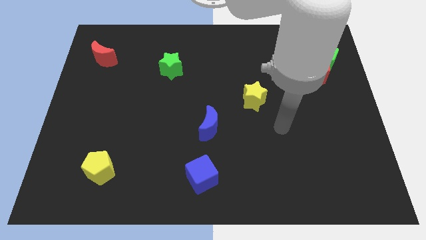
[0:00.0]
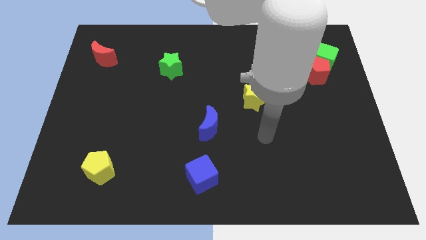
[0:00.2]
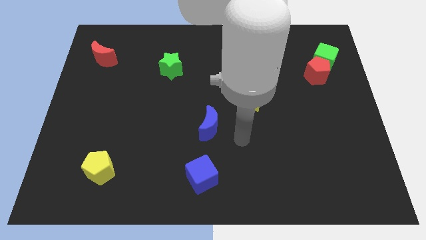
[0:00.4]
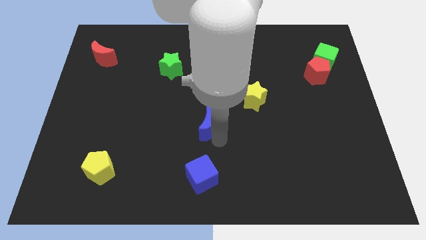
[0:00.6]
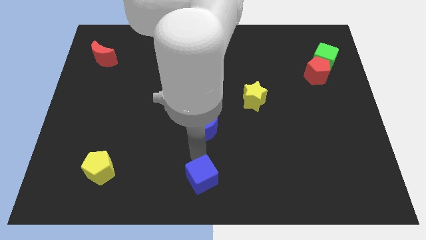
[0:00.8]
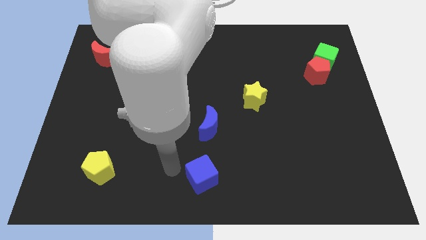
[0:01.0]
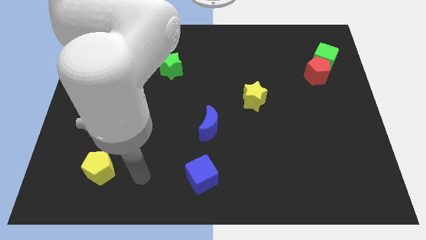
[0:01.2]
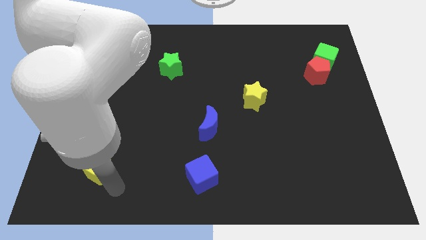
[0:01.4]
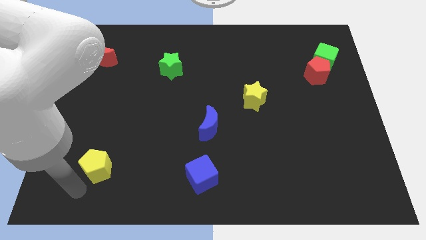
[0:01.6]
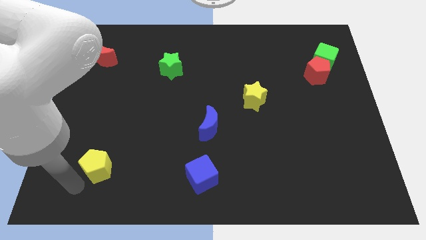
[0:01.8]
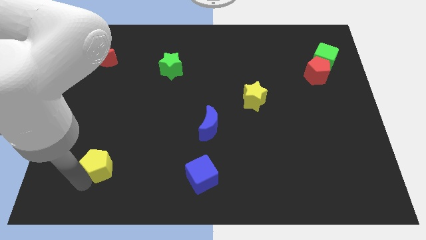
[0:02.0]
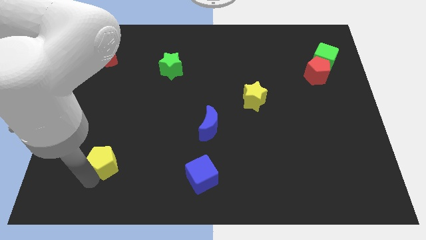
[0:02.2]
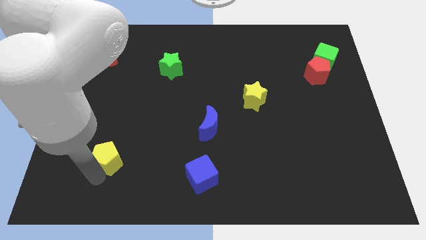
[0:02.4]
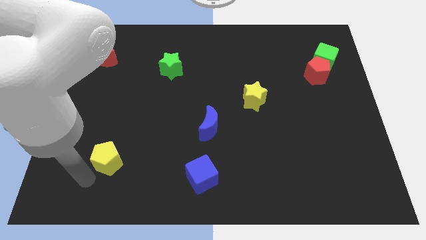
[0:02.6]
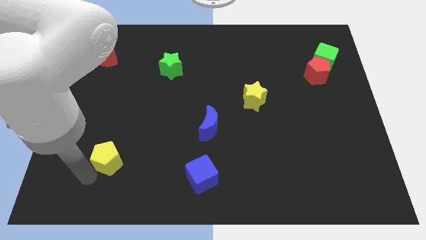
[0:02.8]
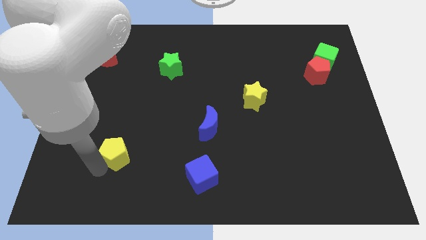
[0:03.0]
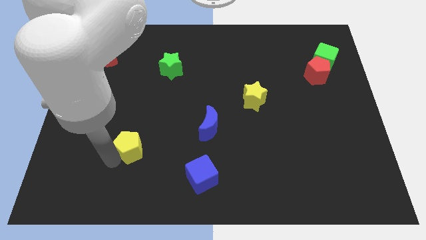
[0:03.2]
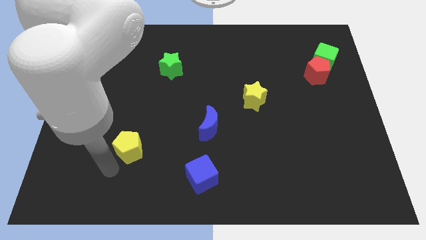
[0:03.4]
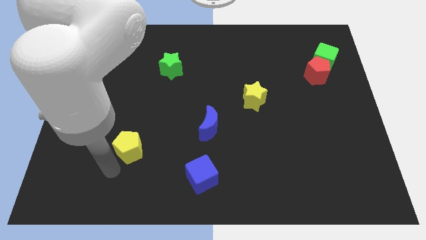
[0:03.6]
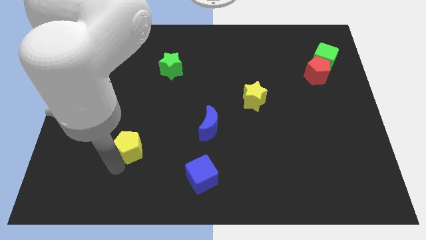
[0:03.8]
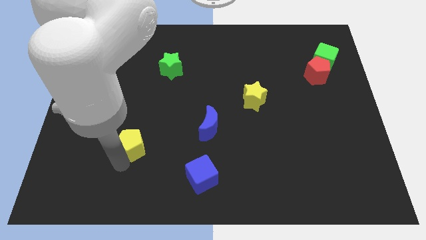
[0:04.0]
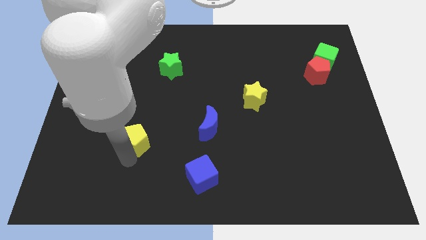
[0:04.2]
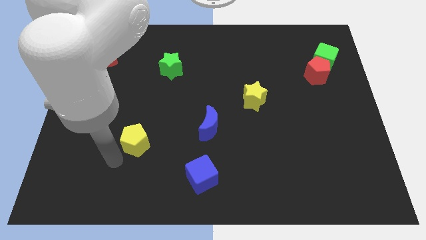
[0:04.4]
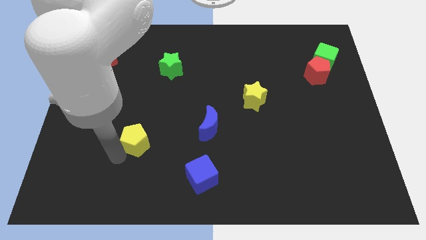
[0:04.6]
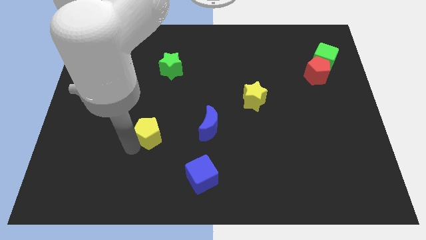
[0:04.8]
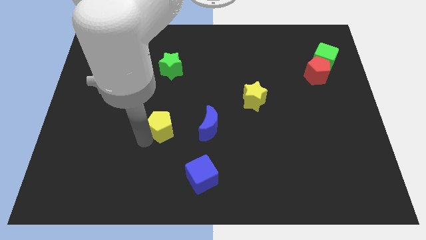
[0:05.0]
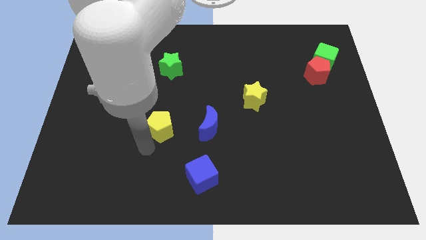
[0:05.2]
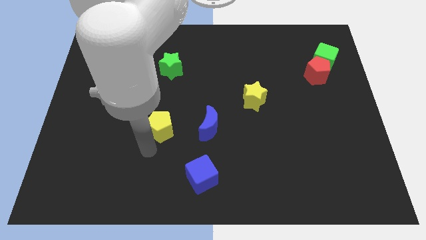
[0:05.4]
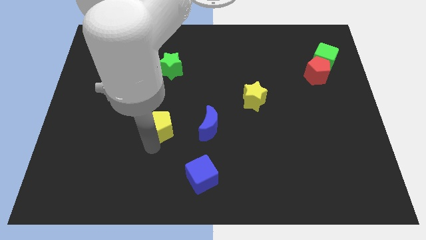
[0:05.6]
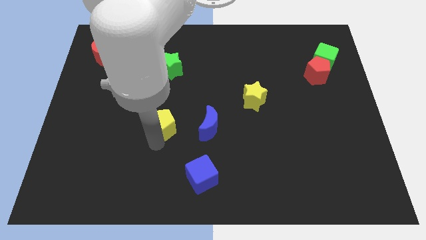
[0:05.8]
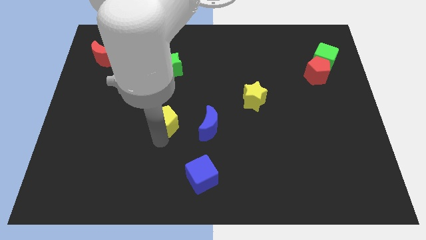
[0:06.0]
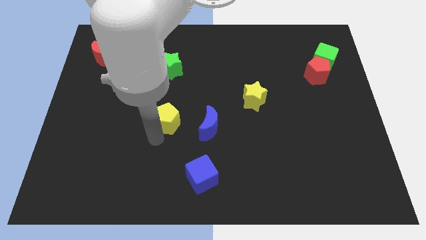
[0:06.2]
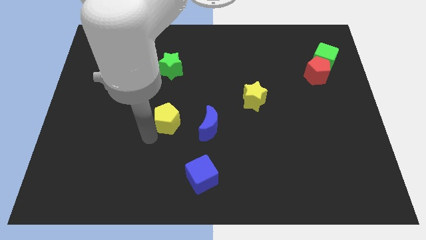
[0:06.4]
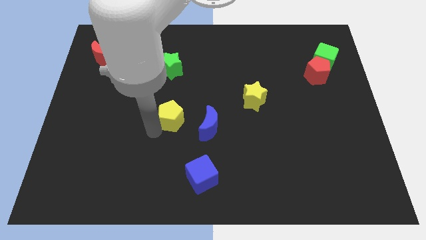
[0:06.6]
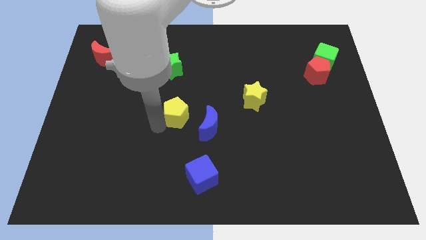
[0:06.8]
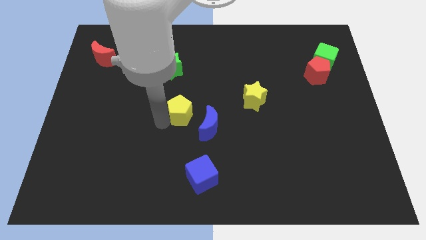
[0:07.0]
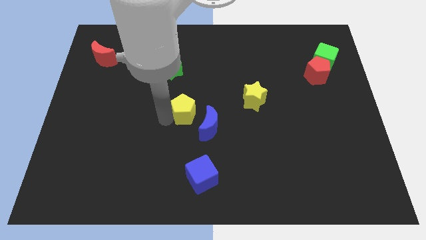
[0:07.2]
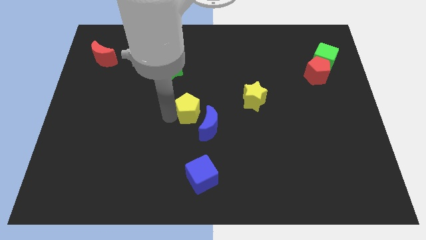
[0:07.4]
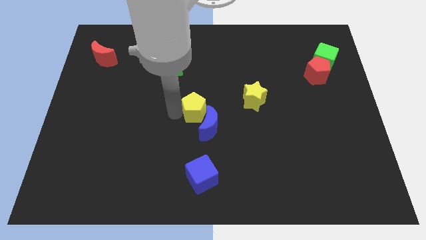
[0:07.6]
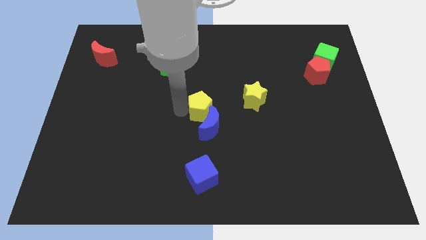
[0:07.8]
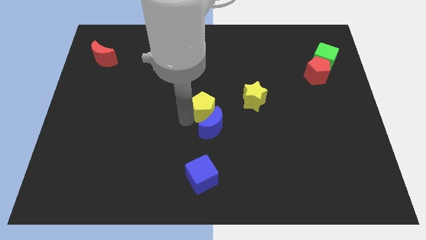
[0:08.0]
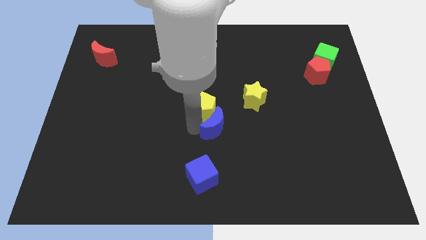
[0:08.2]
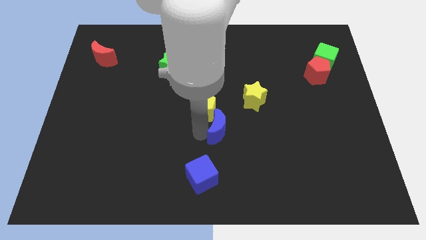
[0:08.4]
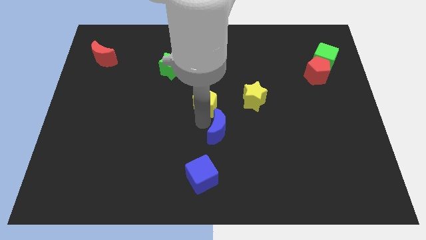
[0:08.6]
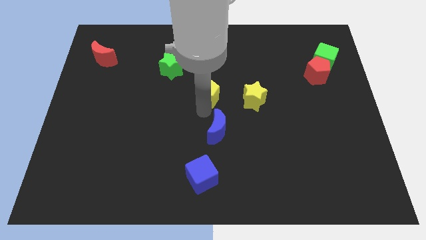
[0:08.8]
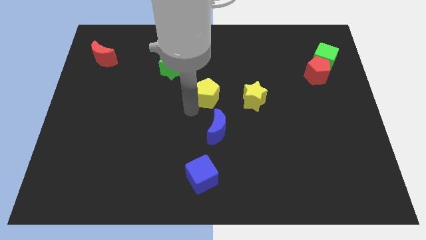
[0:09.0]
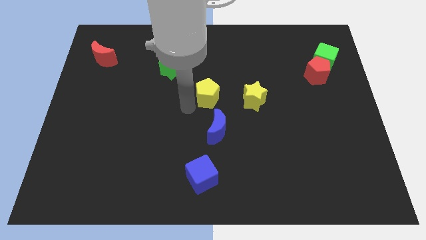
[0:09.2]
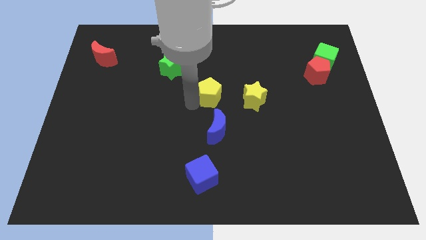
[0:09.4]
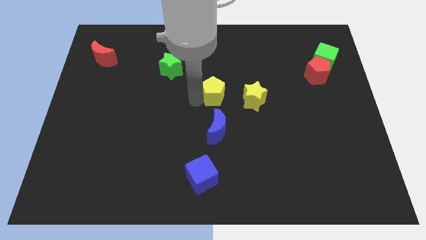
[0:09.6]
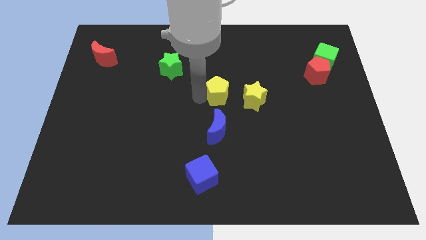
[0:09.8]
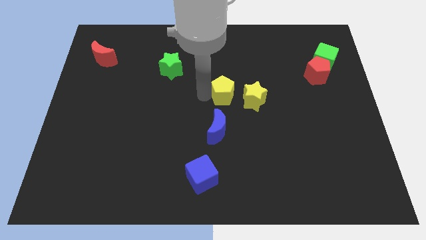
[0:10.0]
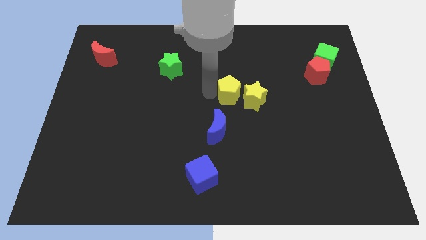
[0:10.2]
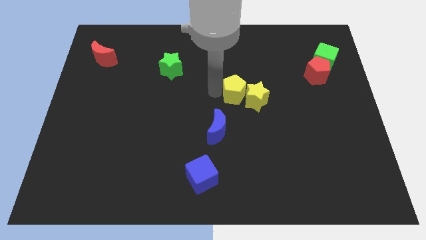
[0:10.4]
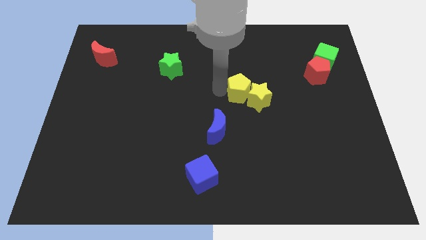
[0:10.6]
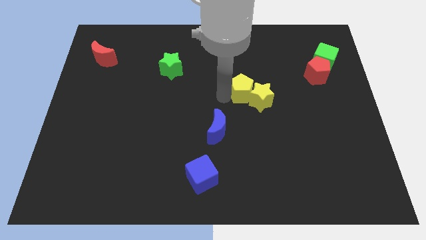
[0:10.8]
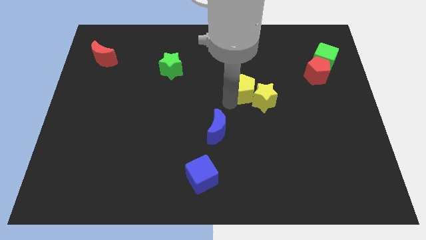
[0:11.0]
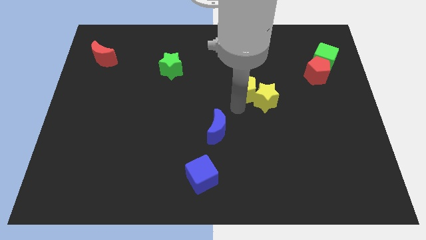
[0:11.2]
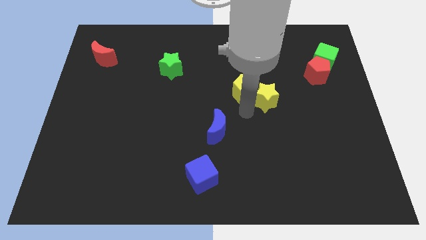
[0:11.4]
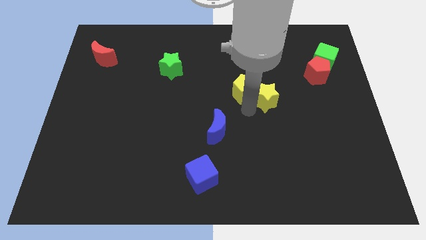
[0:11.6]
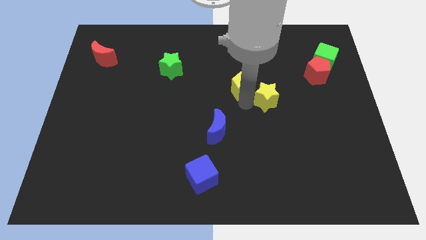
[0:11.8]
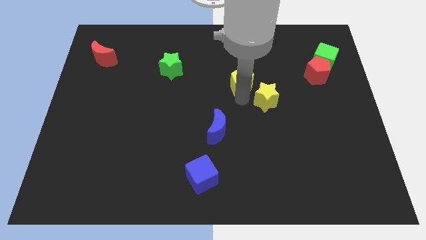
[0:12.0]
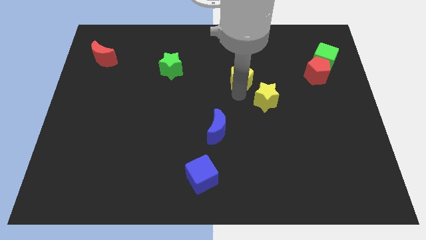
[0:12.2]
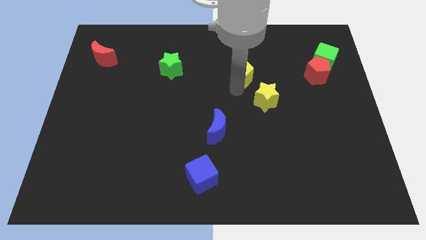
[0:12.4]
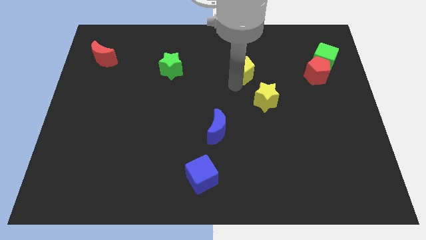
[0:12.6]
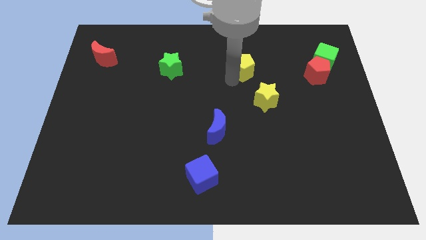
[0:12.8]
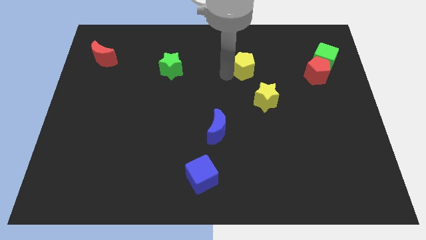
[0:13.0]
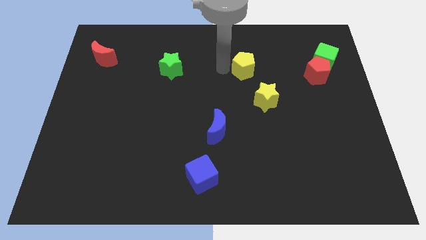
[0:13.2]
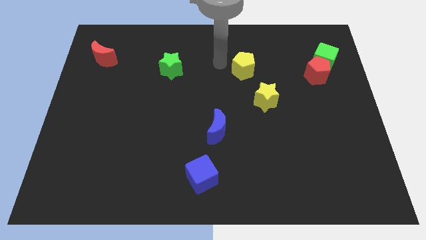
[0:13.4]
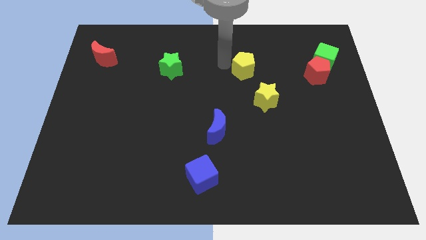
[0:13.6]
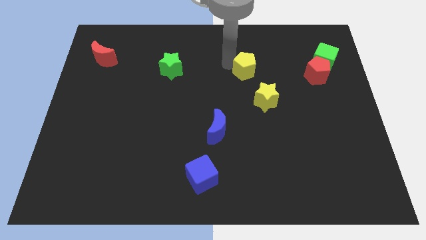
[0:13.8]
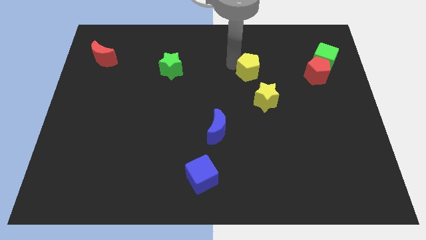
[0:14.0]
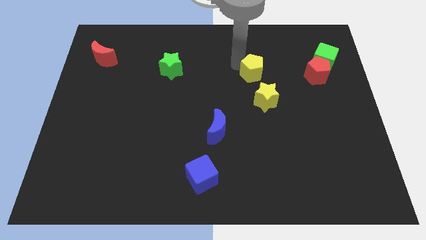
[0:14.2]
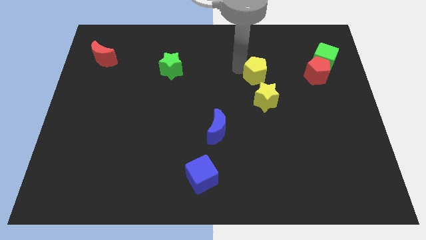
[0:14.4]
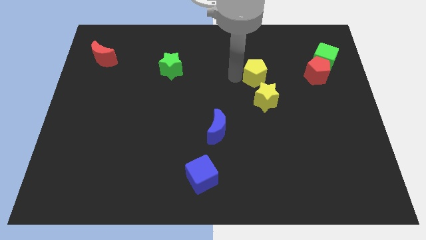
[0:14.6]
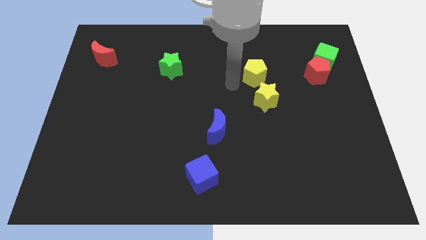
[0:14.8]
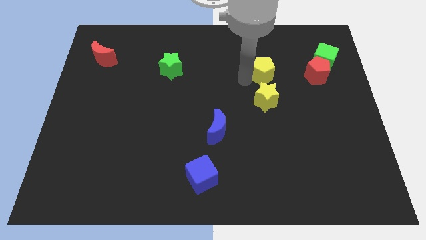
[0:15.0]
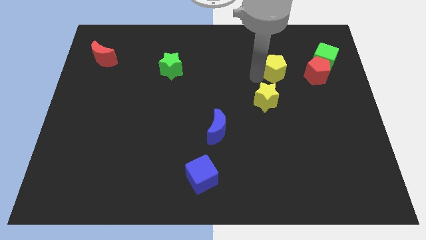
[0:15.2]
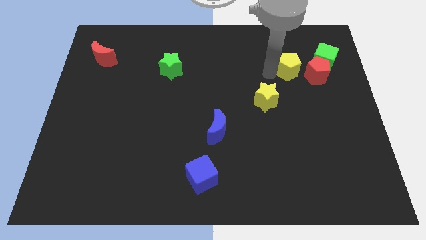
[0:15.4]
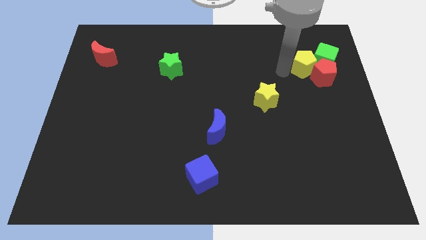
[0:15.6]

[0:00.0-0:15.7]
put the yellow pentagon to the green cube
